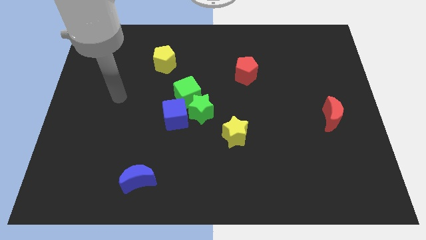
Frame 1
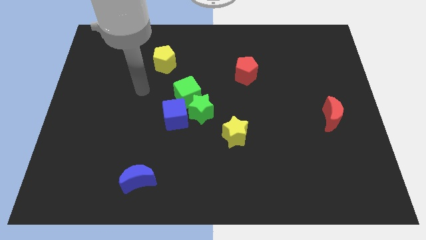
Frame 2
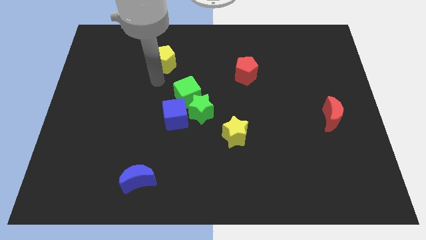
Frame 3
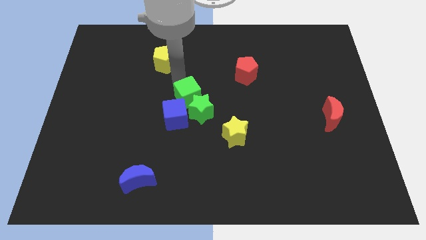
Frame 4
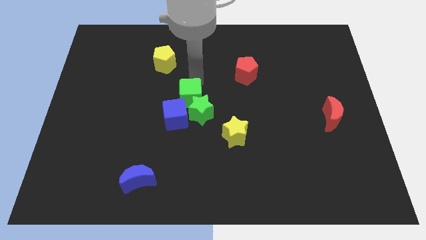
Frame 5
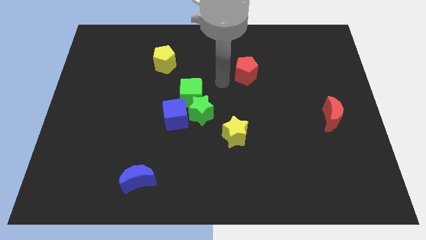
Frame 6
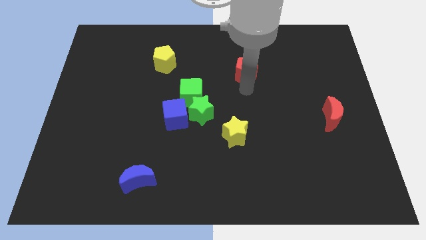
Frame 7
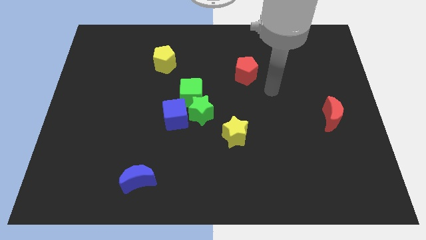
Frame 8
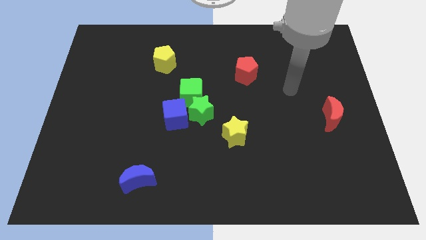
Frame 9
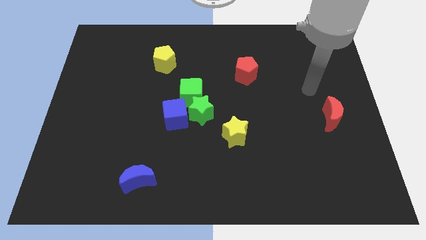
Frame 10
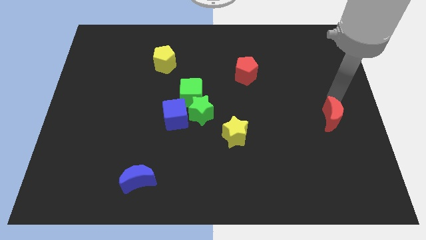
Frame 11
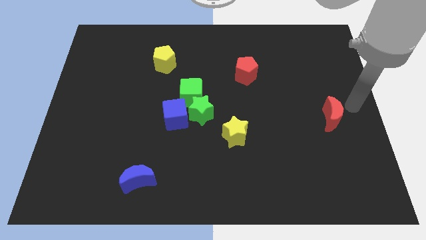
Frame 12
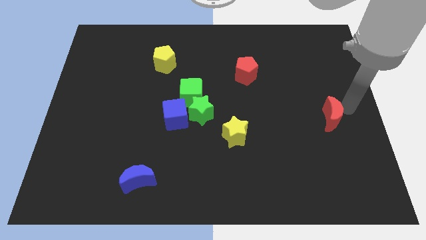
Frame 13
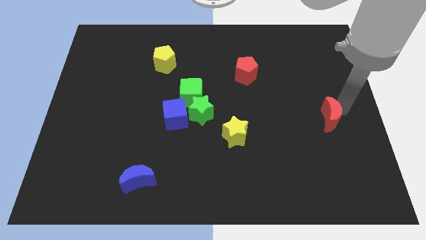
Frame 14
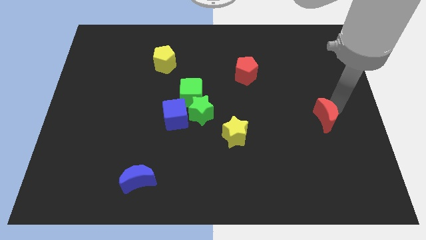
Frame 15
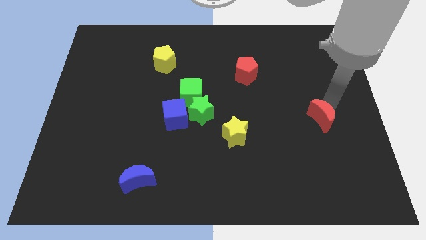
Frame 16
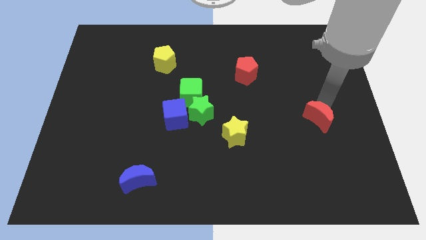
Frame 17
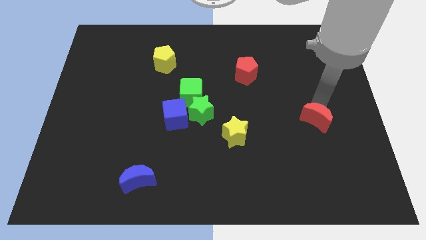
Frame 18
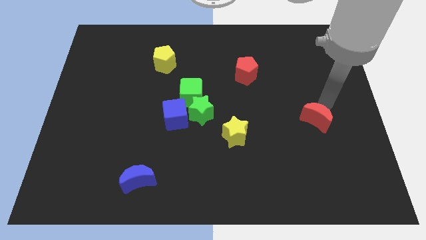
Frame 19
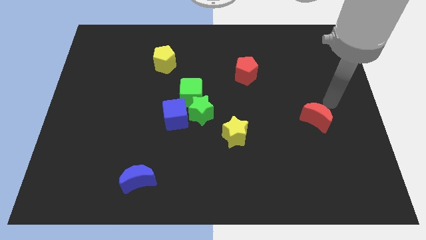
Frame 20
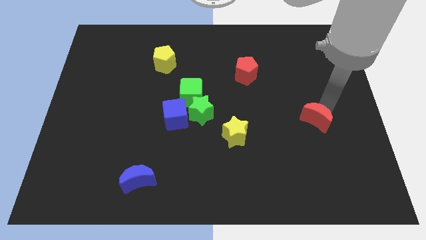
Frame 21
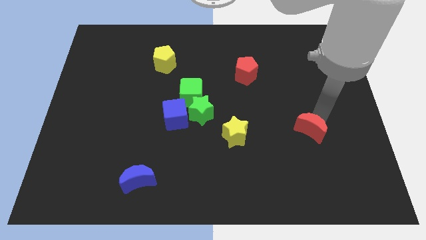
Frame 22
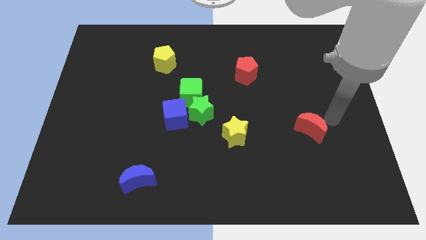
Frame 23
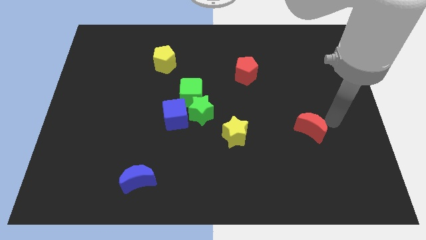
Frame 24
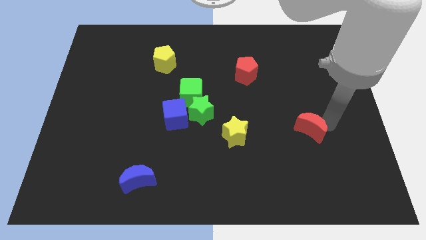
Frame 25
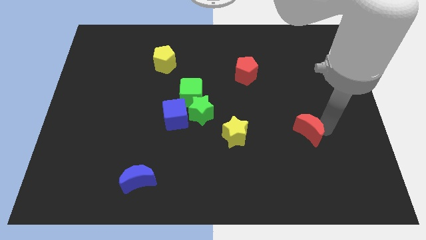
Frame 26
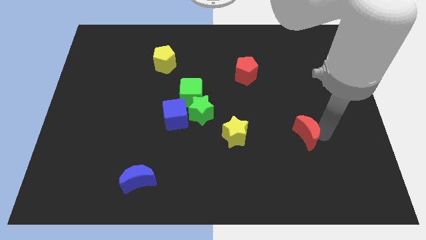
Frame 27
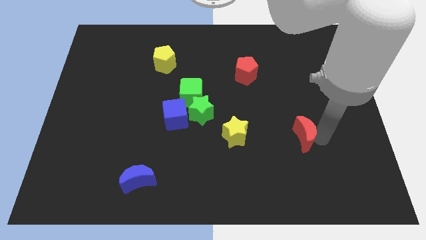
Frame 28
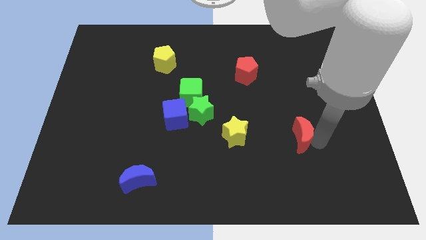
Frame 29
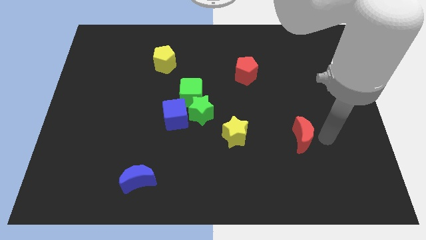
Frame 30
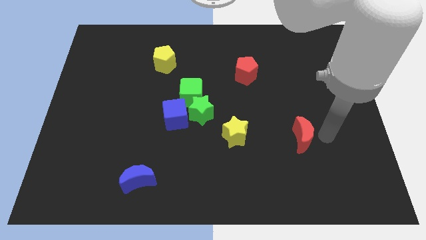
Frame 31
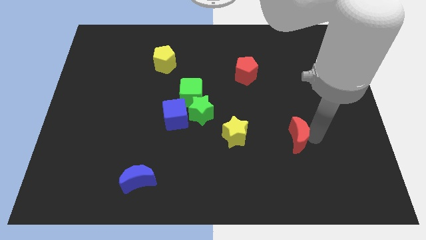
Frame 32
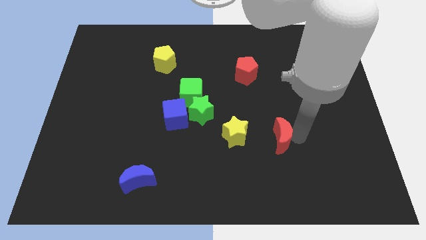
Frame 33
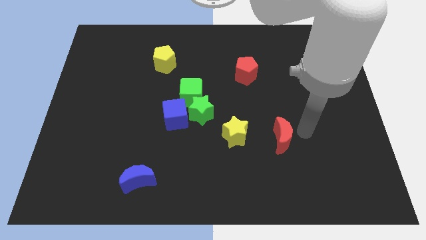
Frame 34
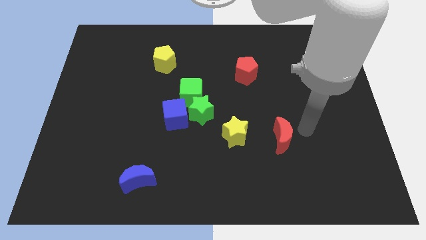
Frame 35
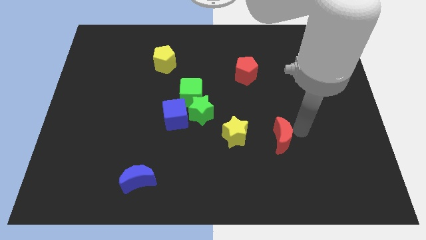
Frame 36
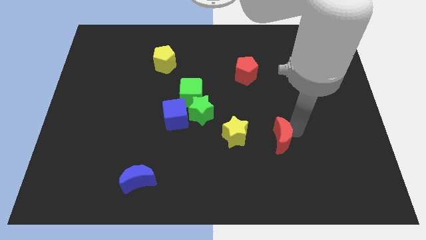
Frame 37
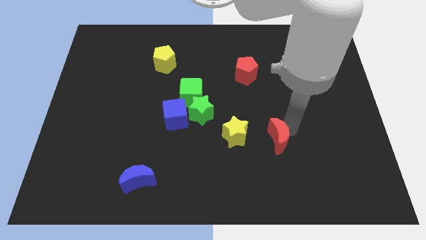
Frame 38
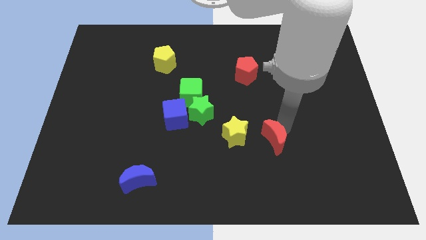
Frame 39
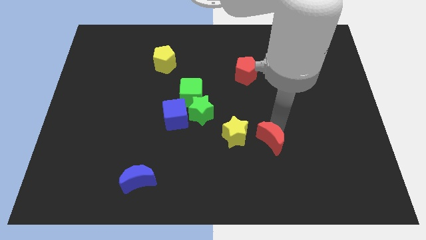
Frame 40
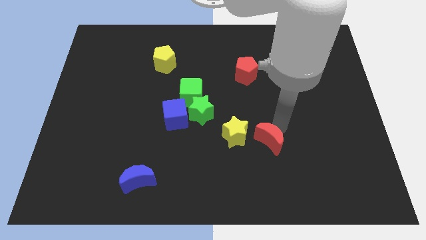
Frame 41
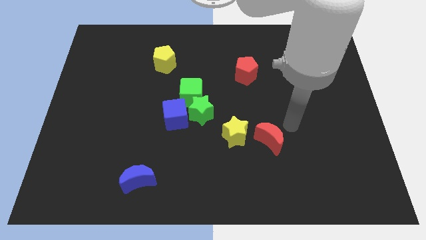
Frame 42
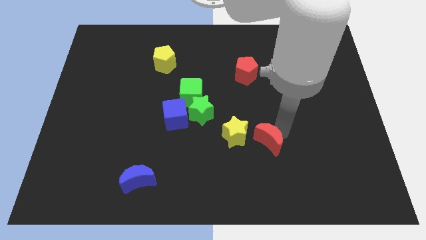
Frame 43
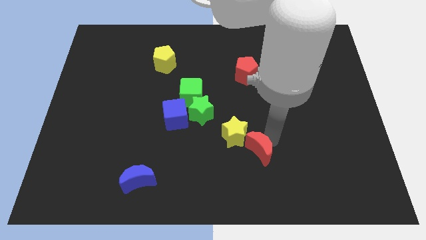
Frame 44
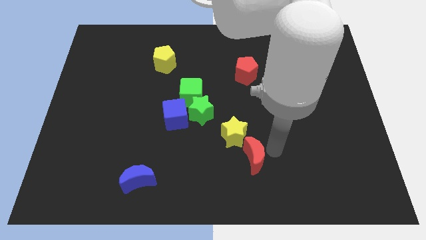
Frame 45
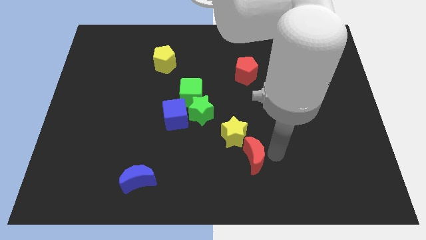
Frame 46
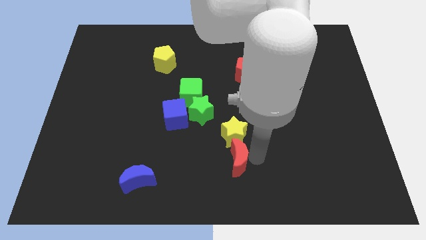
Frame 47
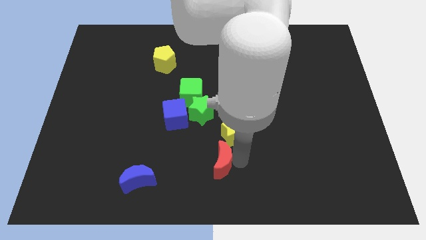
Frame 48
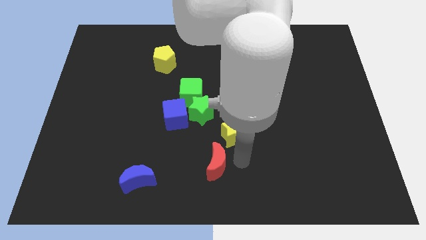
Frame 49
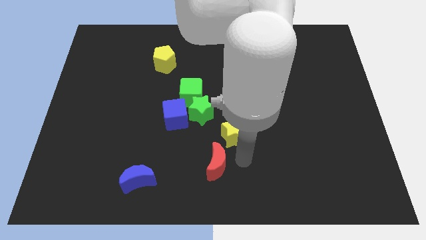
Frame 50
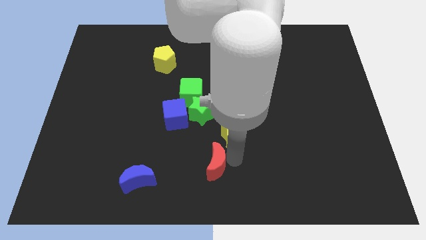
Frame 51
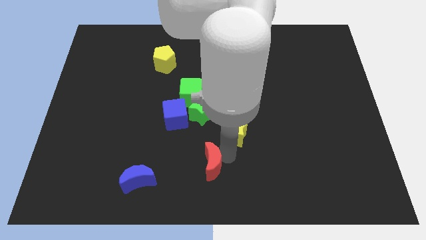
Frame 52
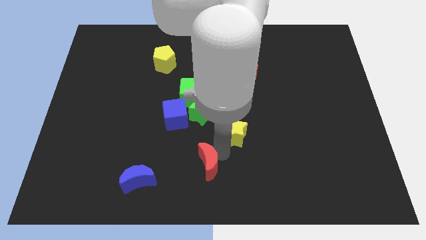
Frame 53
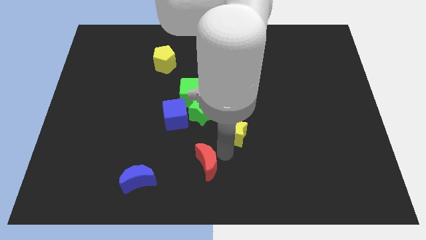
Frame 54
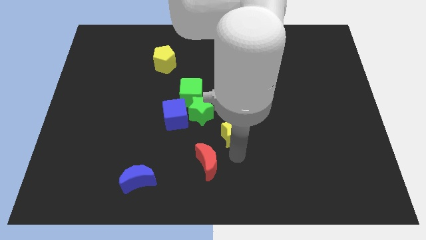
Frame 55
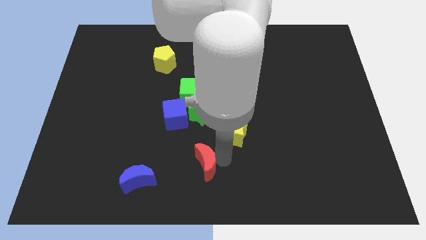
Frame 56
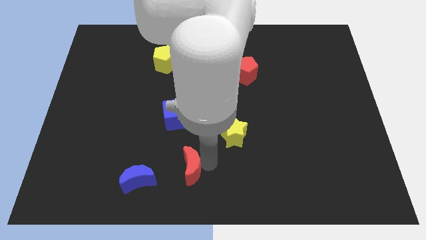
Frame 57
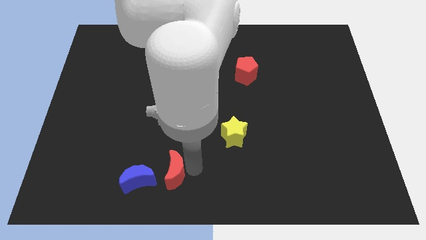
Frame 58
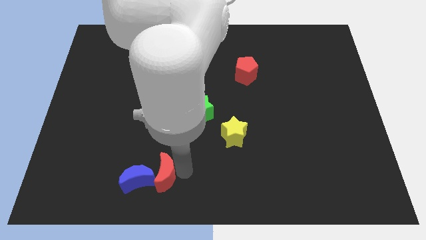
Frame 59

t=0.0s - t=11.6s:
slide the red moon close to the blue moon

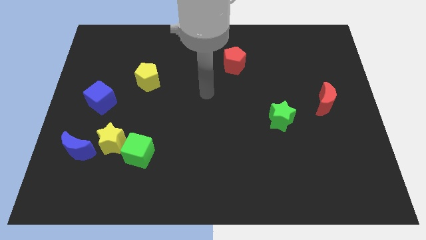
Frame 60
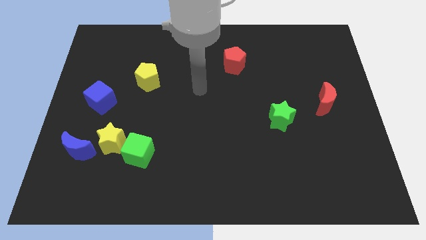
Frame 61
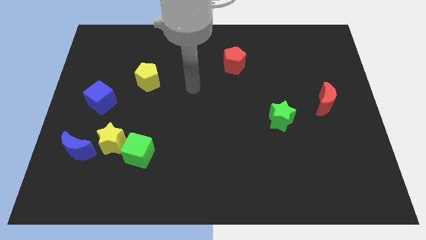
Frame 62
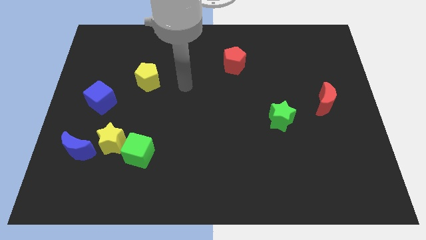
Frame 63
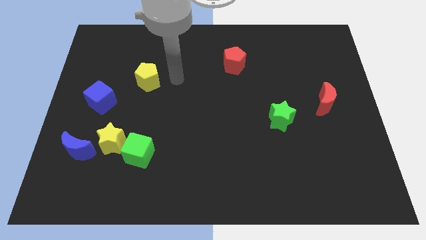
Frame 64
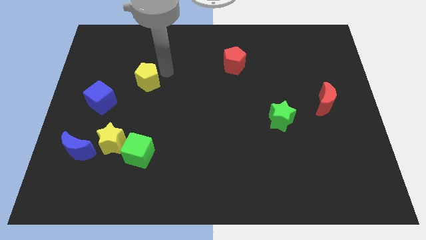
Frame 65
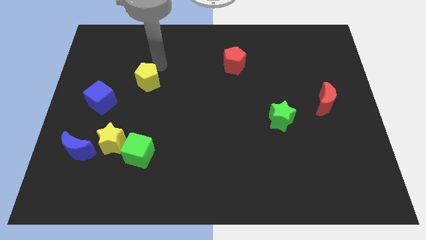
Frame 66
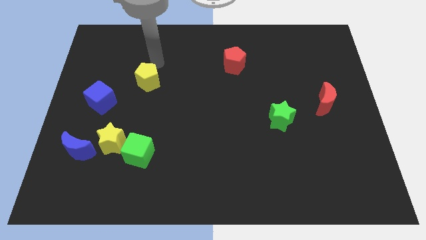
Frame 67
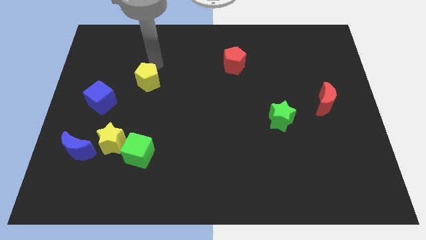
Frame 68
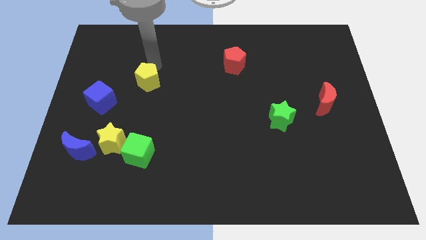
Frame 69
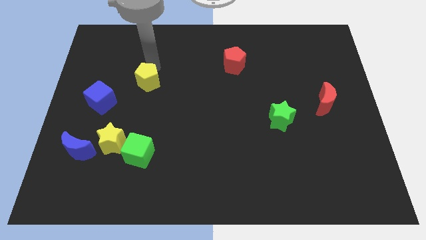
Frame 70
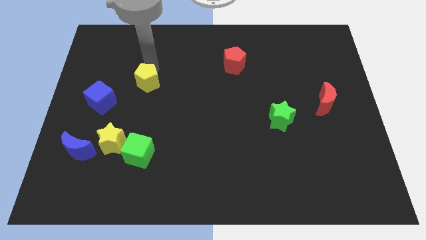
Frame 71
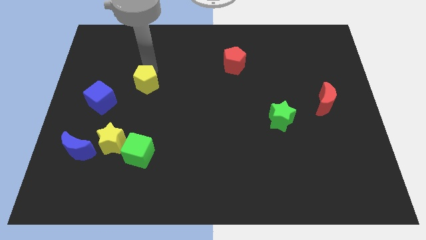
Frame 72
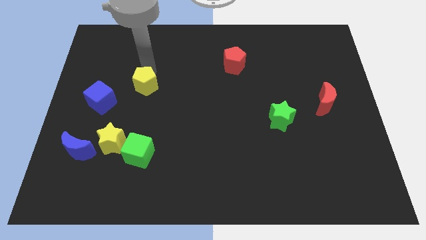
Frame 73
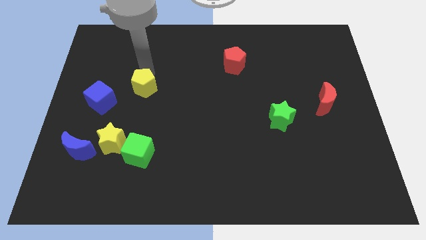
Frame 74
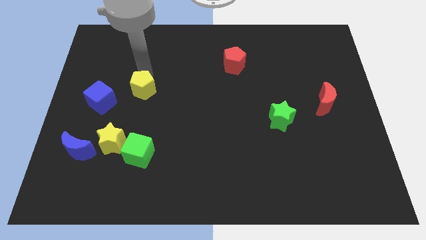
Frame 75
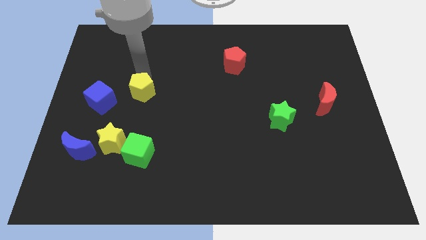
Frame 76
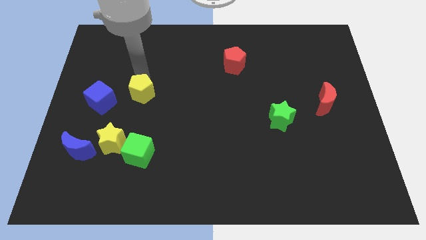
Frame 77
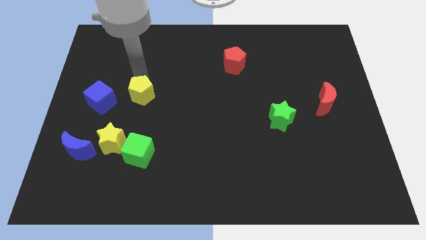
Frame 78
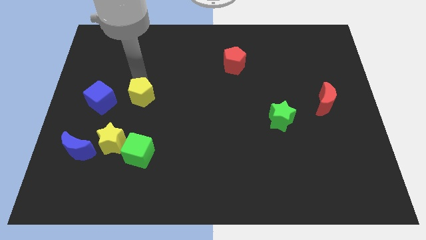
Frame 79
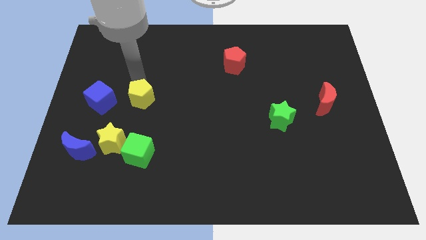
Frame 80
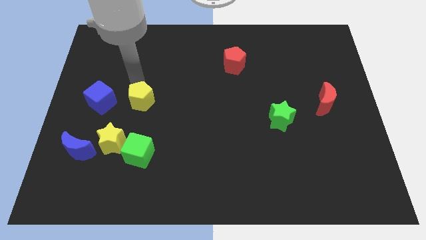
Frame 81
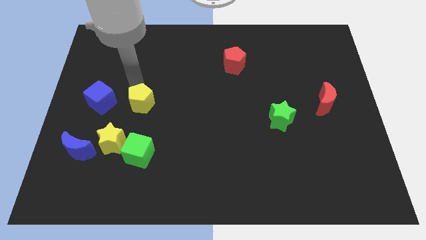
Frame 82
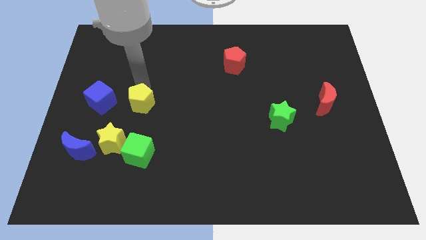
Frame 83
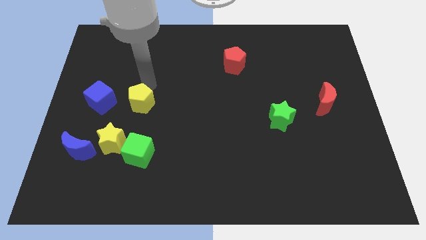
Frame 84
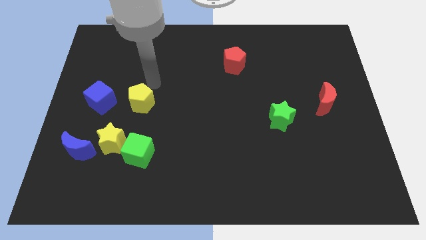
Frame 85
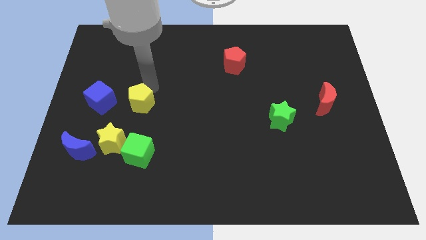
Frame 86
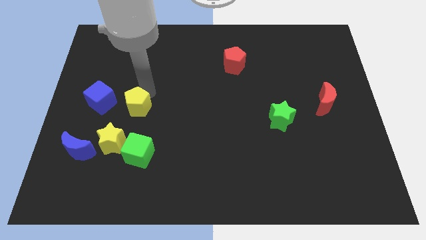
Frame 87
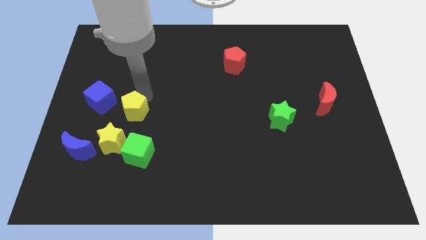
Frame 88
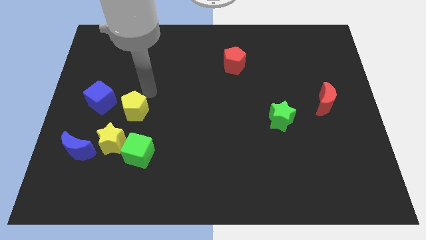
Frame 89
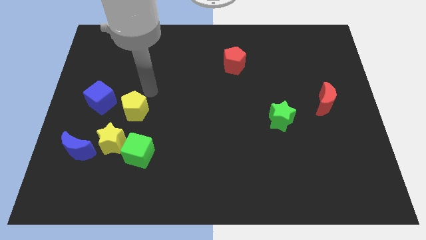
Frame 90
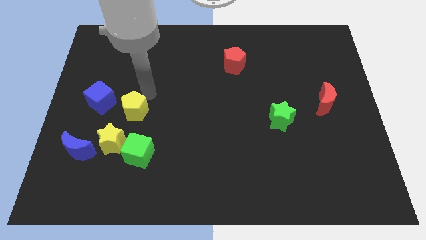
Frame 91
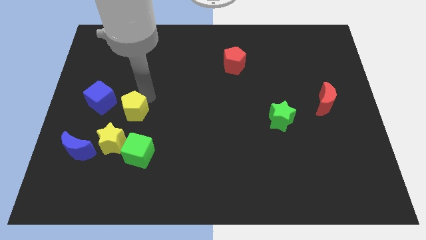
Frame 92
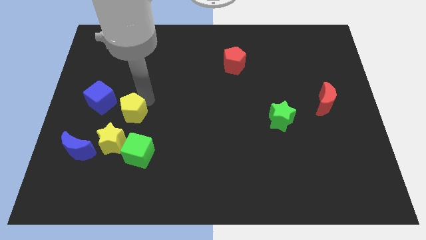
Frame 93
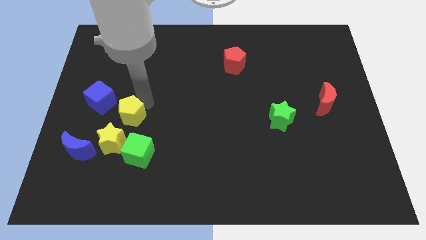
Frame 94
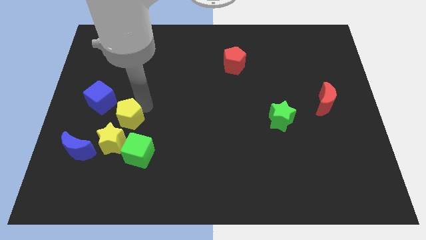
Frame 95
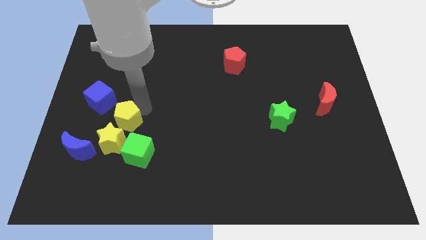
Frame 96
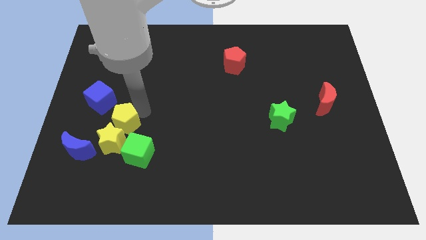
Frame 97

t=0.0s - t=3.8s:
move the yellow pentagon to the yellow star
